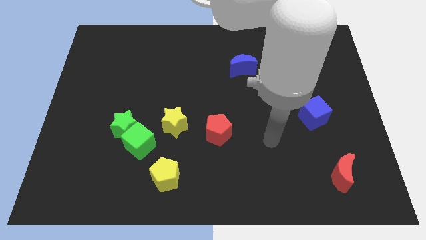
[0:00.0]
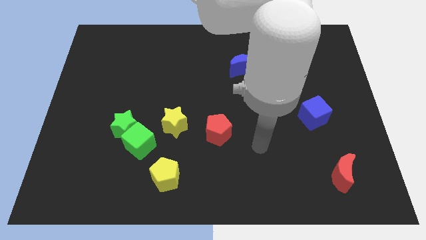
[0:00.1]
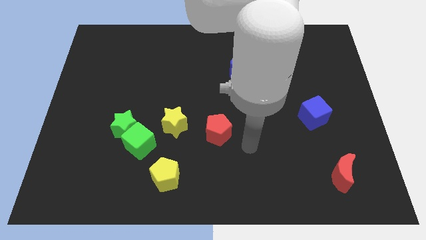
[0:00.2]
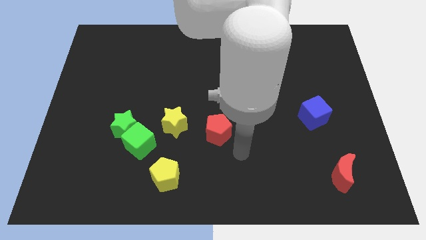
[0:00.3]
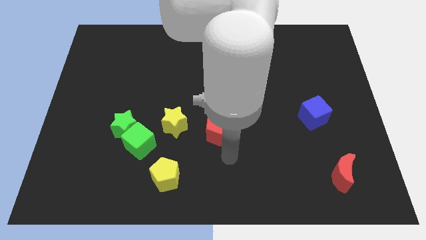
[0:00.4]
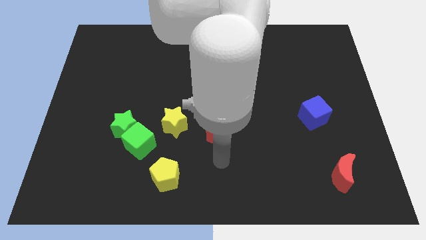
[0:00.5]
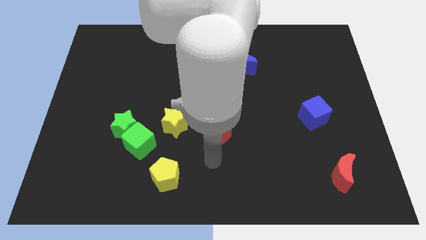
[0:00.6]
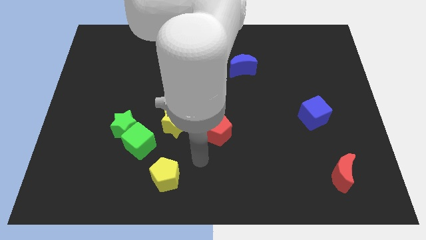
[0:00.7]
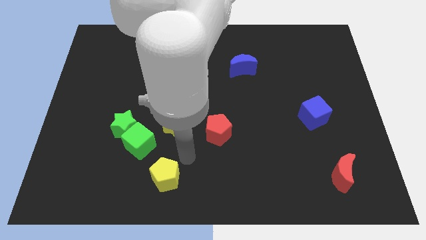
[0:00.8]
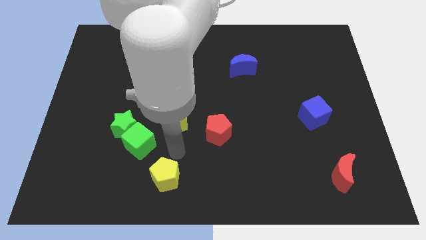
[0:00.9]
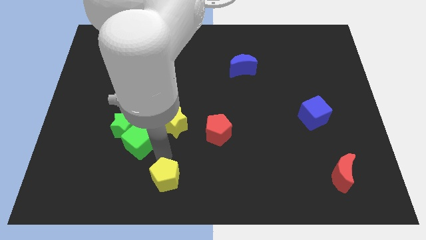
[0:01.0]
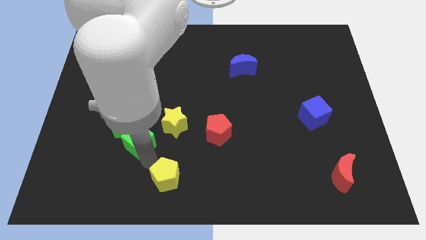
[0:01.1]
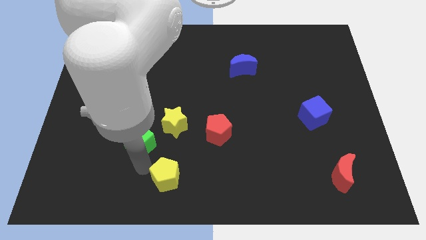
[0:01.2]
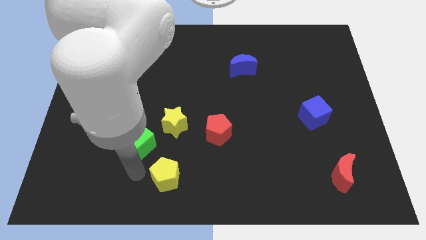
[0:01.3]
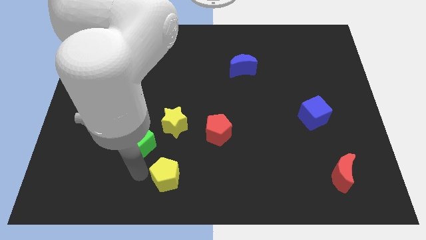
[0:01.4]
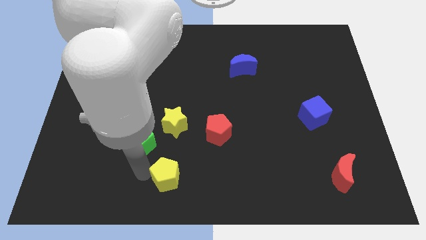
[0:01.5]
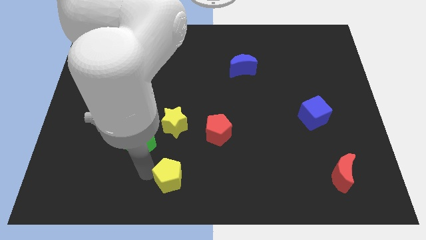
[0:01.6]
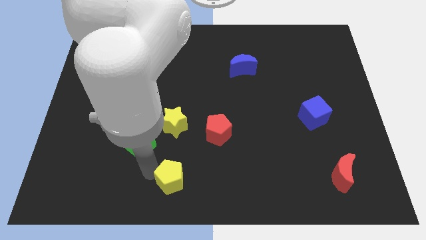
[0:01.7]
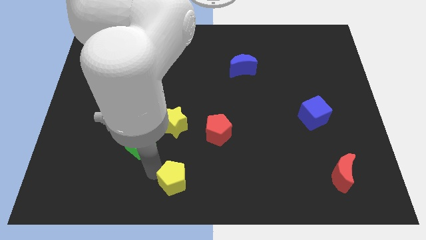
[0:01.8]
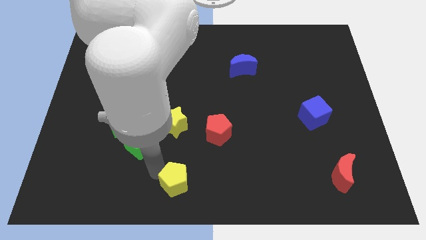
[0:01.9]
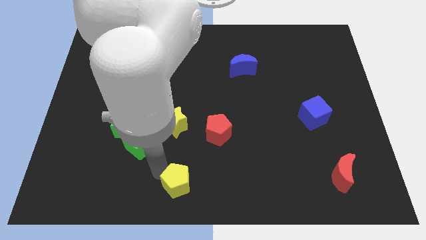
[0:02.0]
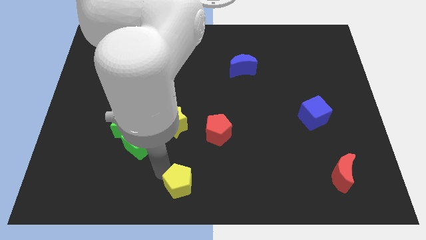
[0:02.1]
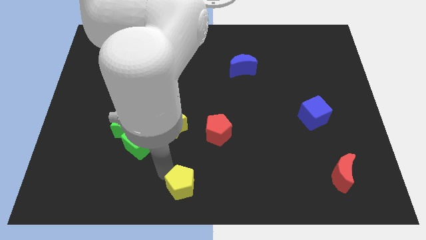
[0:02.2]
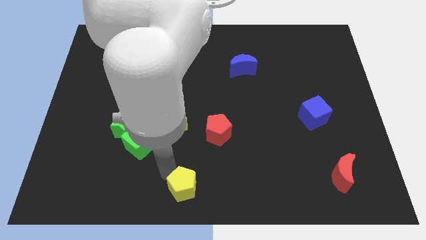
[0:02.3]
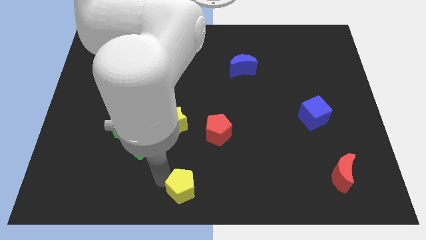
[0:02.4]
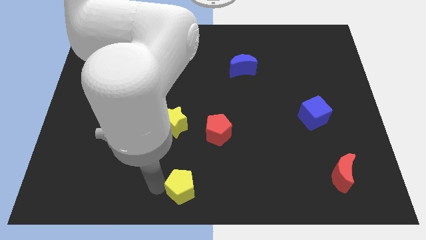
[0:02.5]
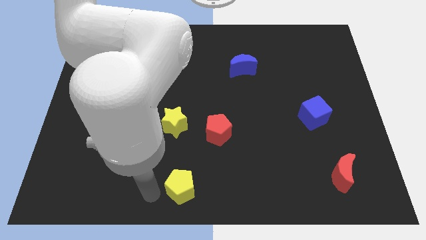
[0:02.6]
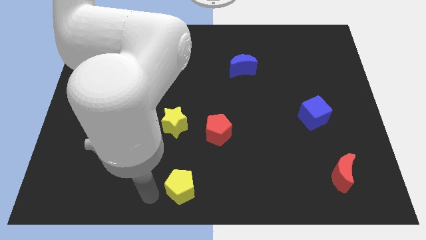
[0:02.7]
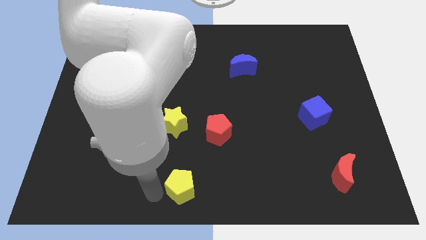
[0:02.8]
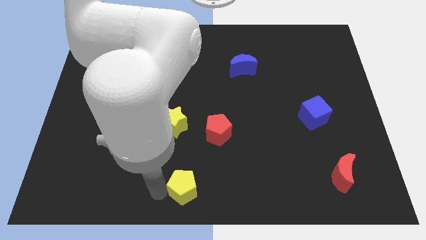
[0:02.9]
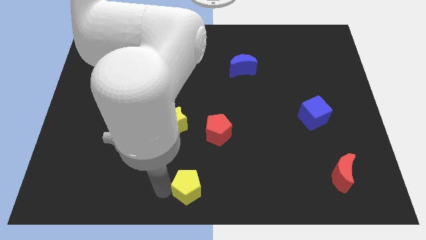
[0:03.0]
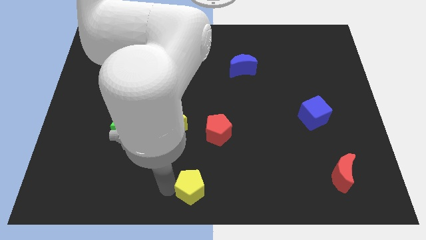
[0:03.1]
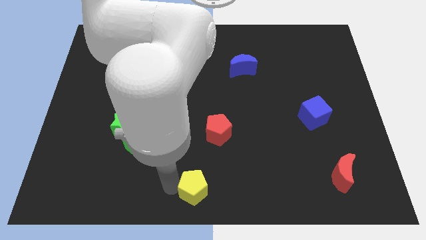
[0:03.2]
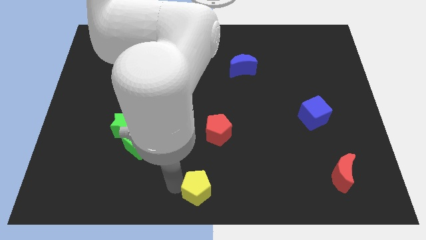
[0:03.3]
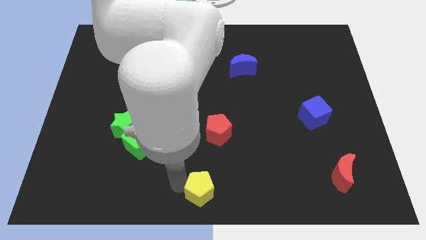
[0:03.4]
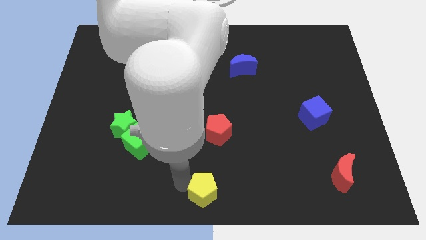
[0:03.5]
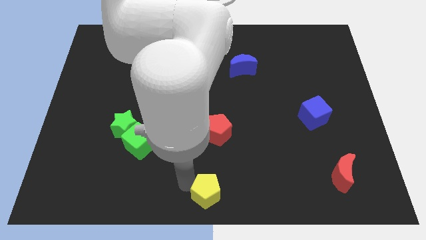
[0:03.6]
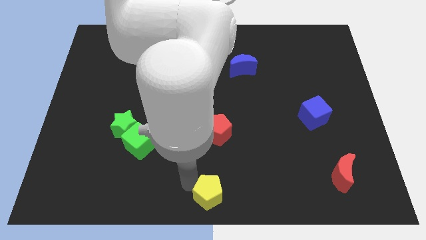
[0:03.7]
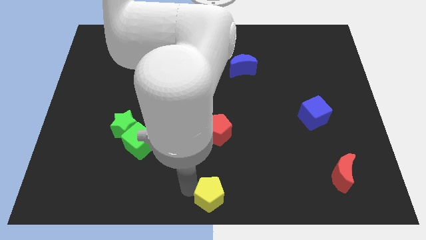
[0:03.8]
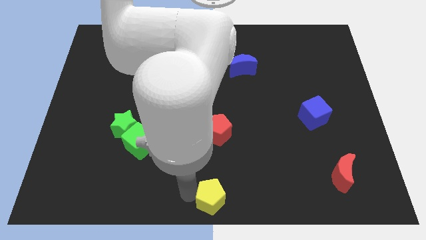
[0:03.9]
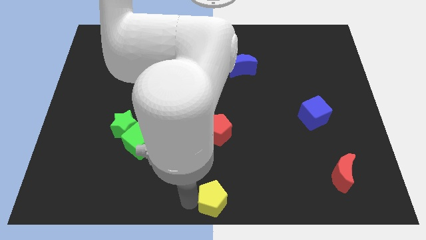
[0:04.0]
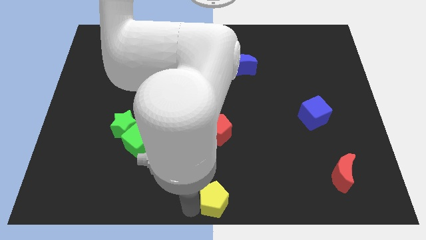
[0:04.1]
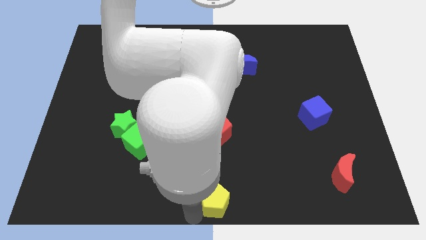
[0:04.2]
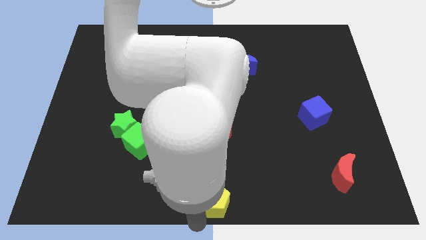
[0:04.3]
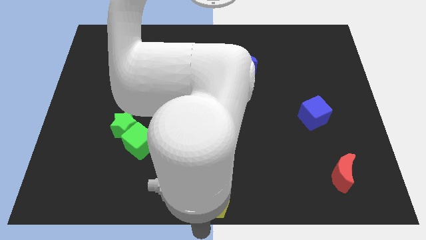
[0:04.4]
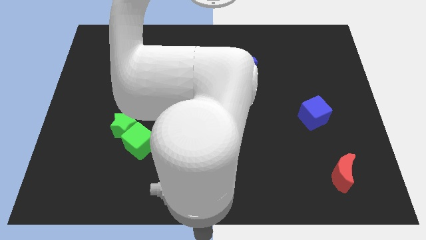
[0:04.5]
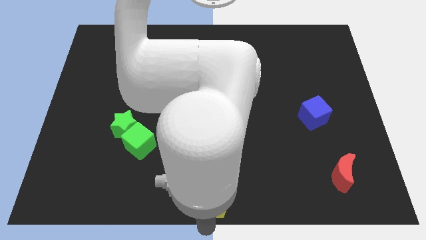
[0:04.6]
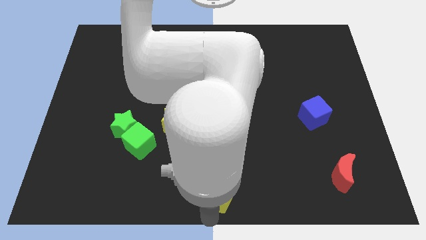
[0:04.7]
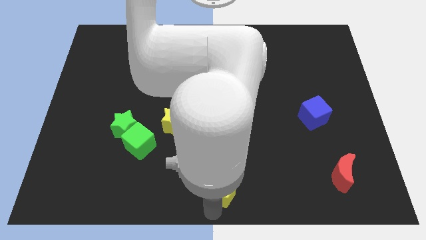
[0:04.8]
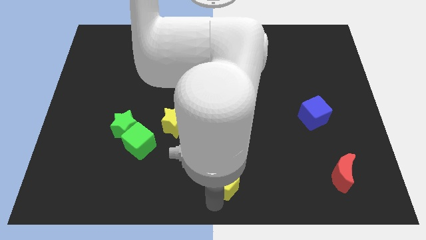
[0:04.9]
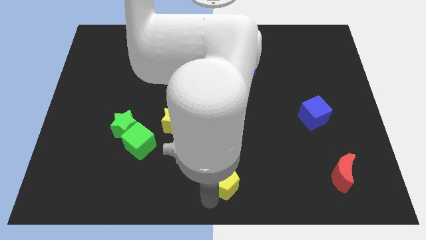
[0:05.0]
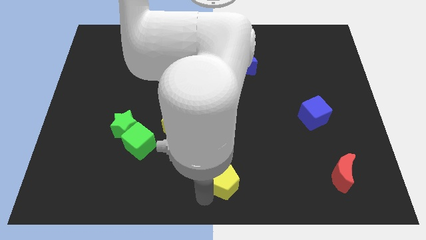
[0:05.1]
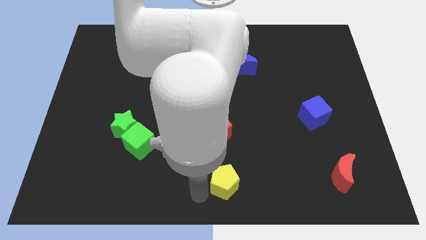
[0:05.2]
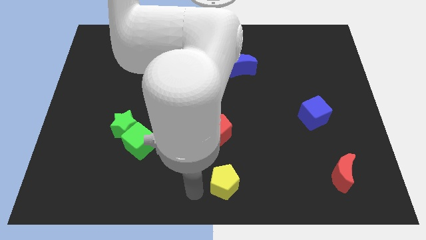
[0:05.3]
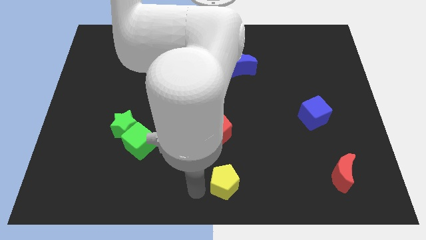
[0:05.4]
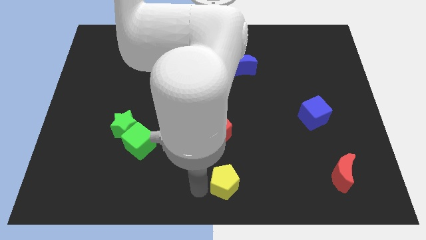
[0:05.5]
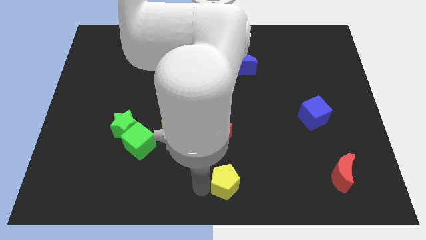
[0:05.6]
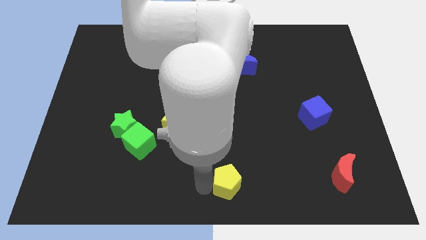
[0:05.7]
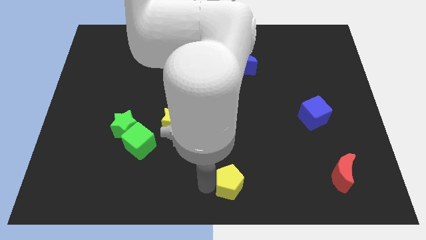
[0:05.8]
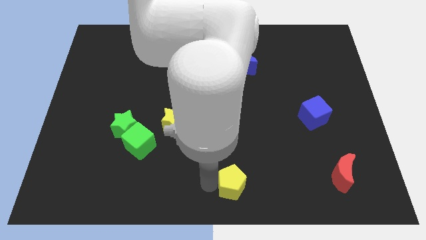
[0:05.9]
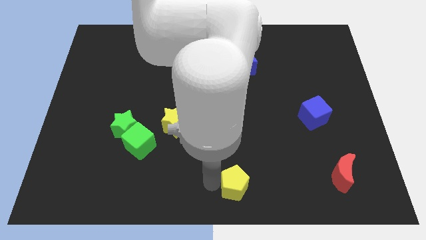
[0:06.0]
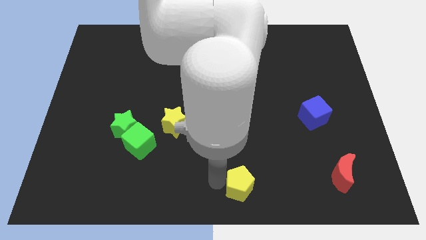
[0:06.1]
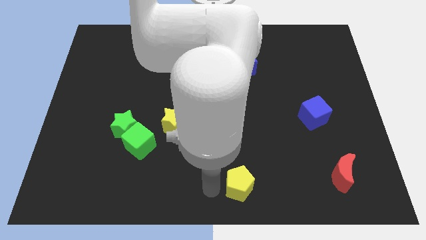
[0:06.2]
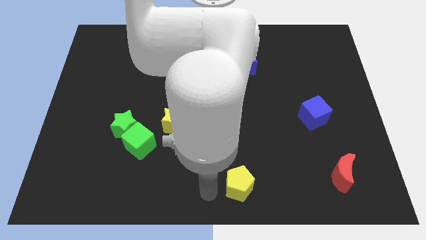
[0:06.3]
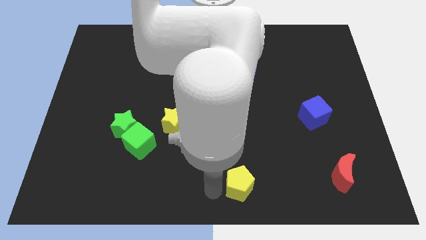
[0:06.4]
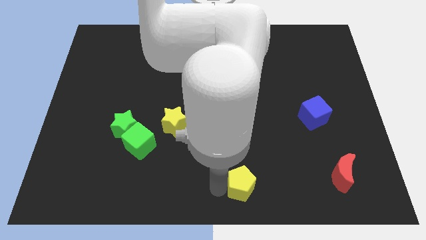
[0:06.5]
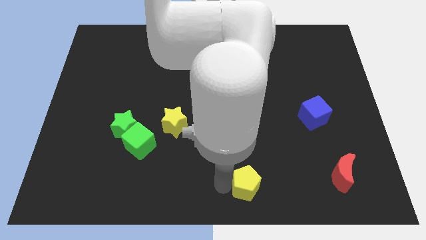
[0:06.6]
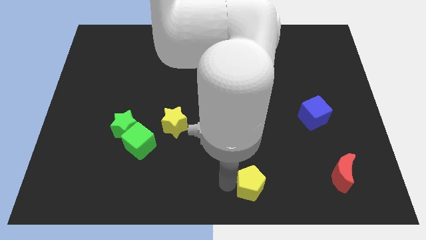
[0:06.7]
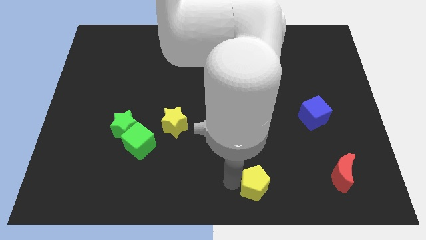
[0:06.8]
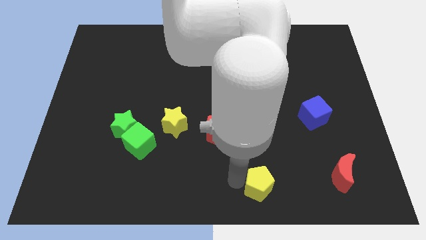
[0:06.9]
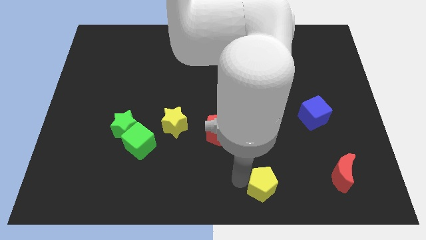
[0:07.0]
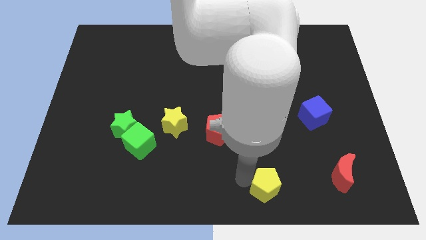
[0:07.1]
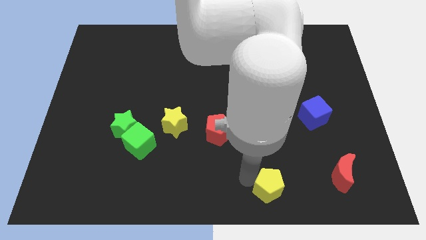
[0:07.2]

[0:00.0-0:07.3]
slide the yellow pentagon left of the red moon
